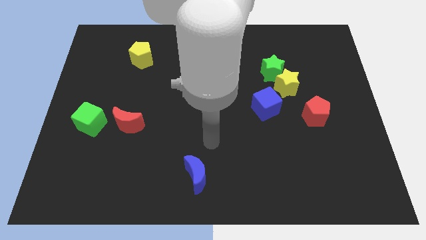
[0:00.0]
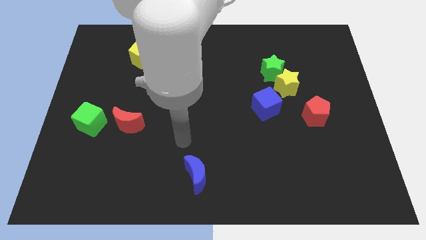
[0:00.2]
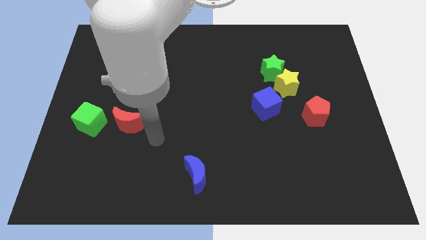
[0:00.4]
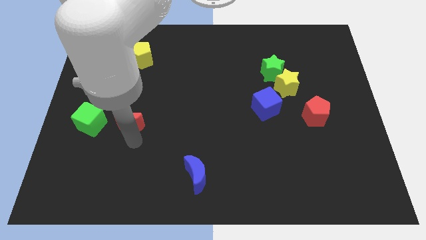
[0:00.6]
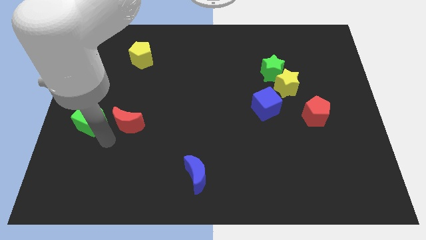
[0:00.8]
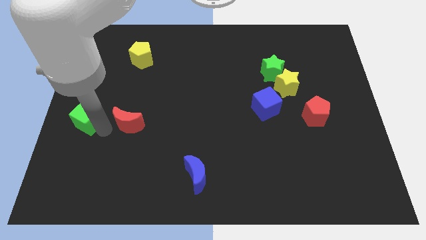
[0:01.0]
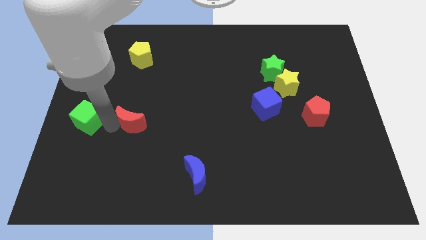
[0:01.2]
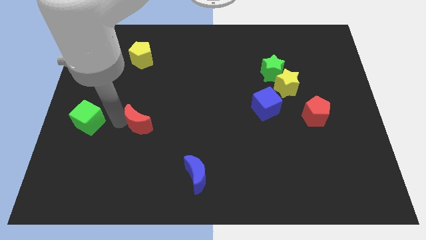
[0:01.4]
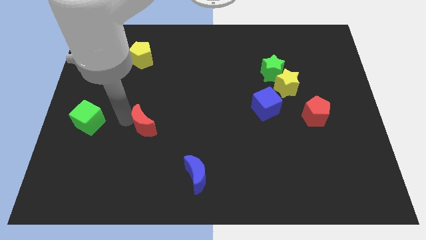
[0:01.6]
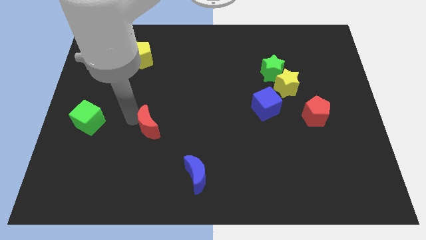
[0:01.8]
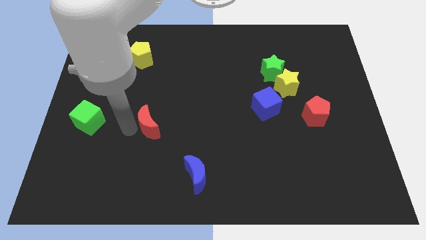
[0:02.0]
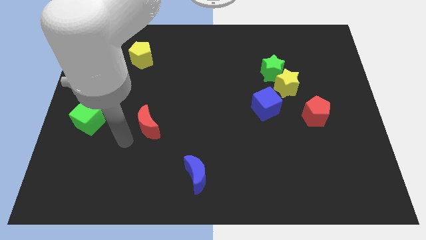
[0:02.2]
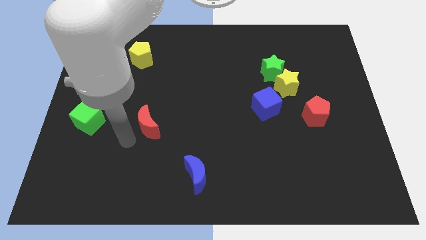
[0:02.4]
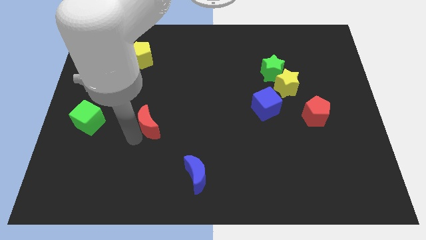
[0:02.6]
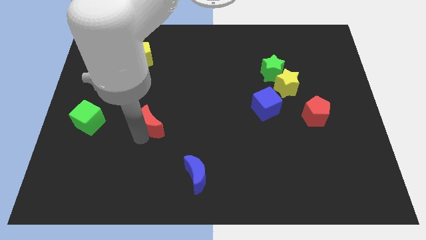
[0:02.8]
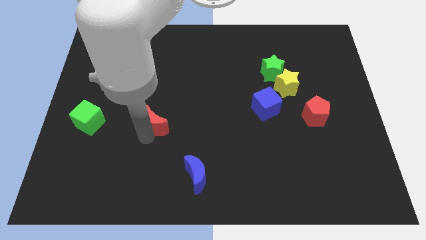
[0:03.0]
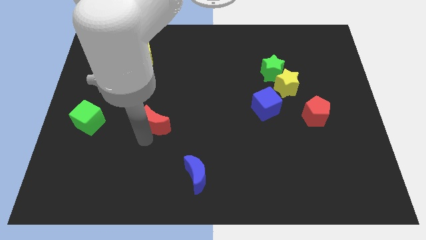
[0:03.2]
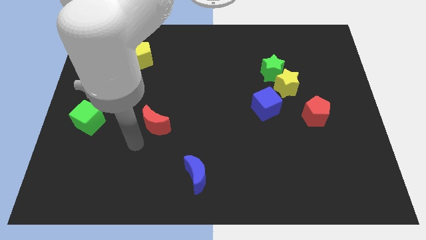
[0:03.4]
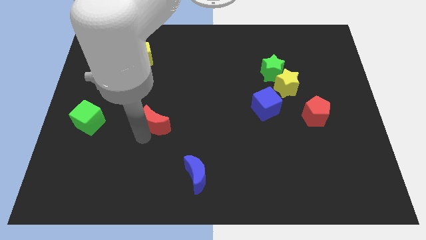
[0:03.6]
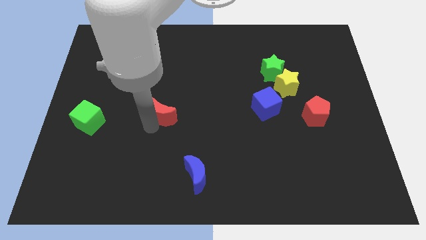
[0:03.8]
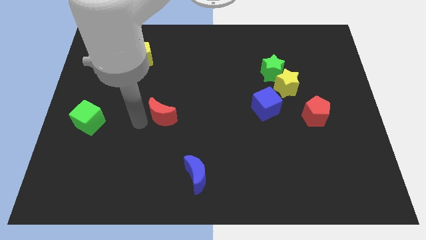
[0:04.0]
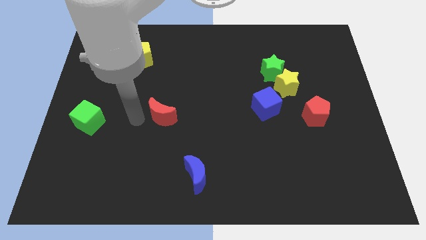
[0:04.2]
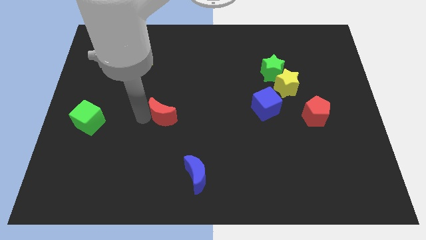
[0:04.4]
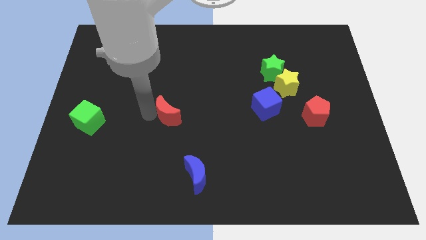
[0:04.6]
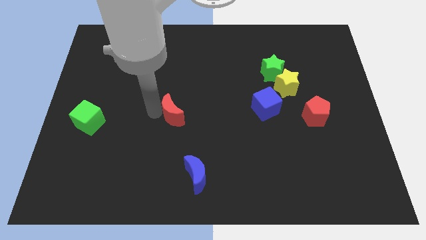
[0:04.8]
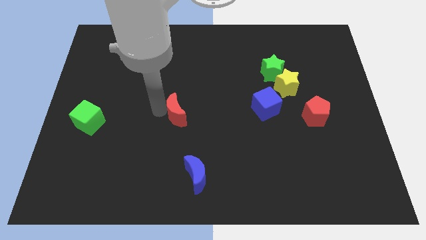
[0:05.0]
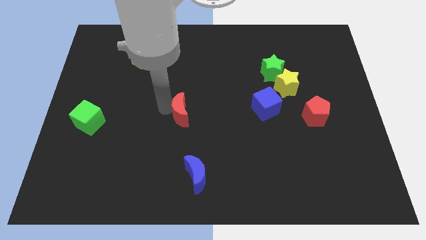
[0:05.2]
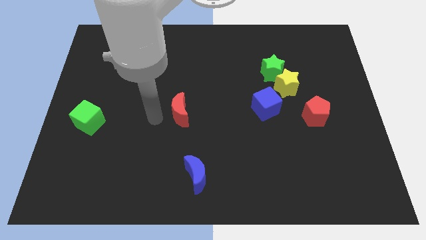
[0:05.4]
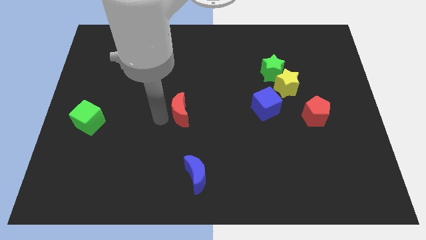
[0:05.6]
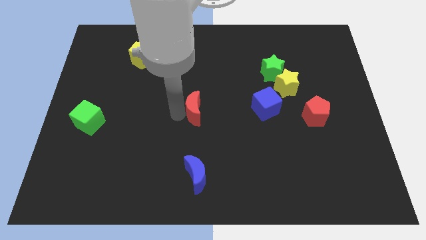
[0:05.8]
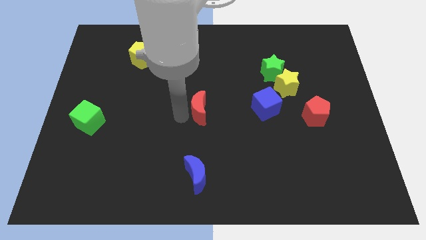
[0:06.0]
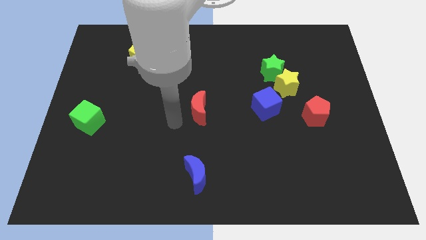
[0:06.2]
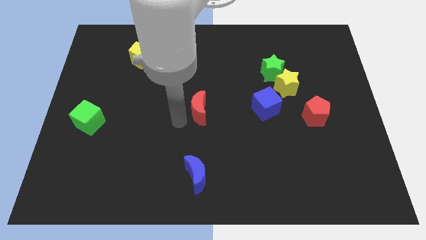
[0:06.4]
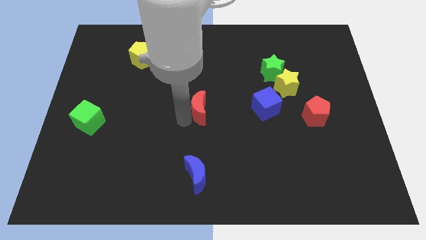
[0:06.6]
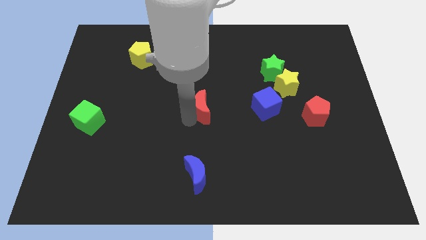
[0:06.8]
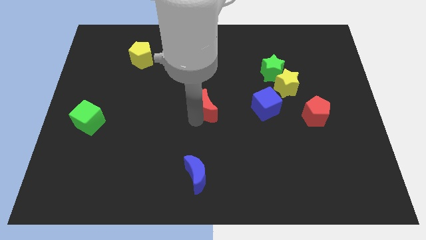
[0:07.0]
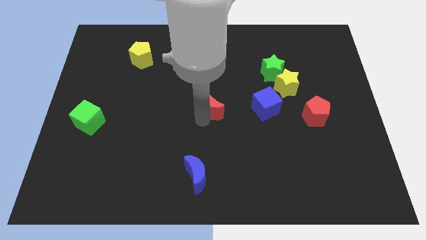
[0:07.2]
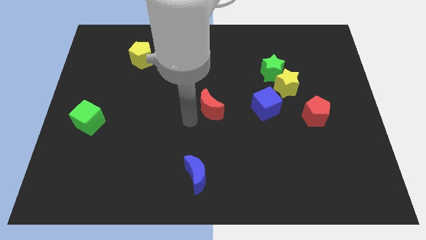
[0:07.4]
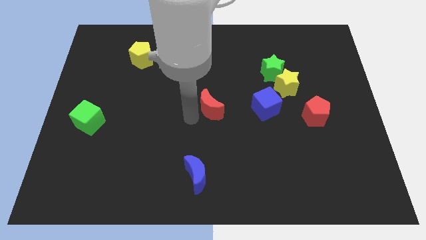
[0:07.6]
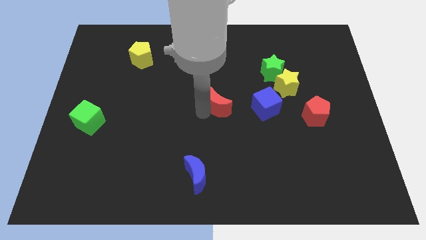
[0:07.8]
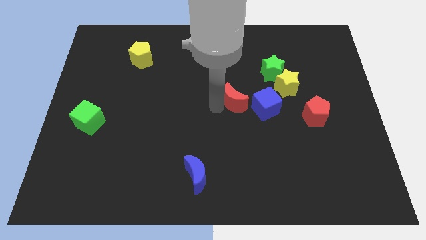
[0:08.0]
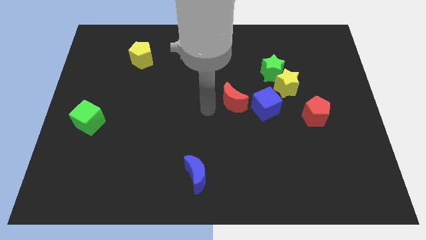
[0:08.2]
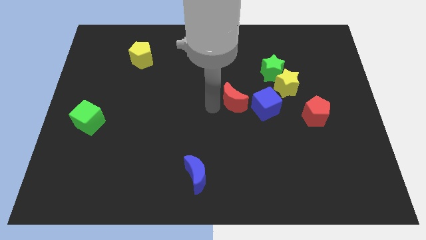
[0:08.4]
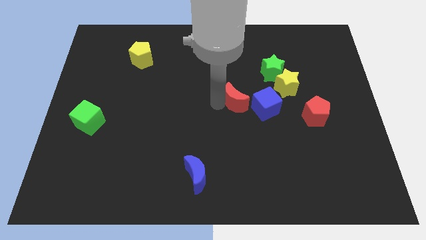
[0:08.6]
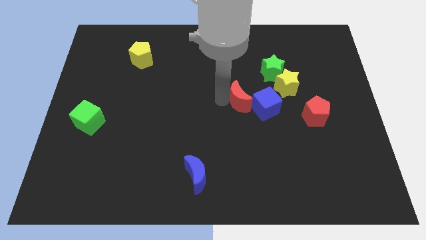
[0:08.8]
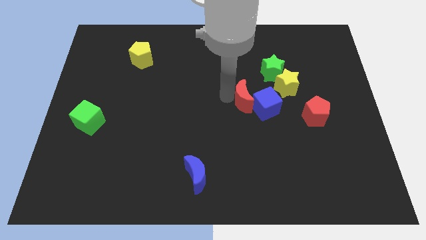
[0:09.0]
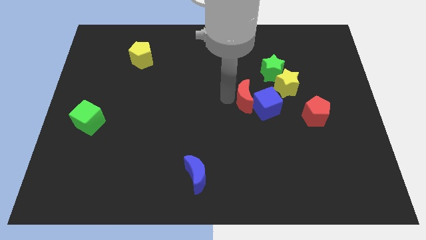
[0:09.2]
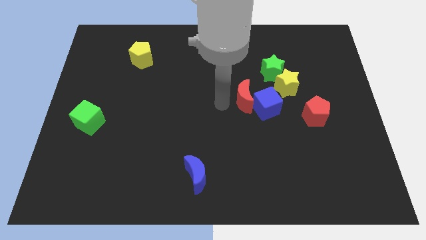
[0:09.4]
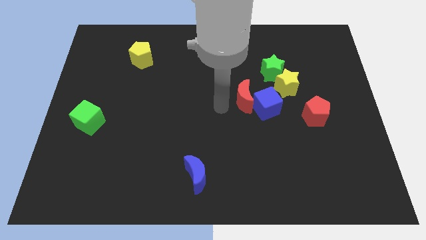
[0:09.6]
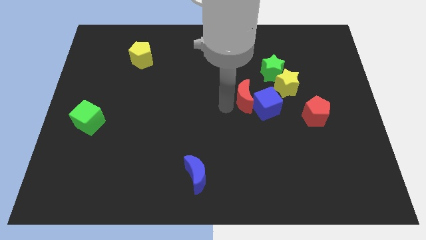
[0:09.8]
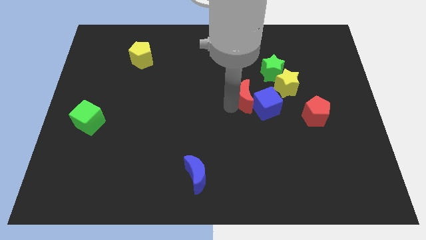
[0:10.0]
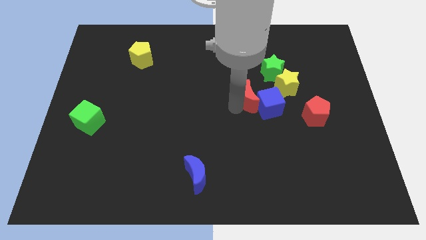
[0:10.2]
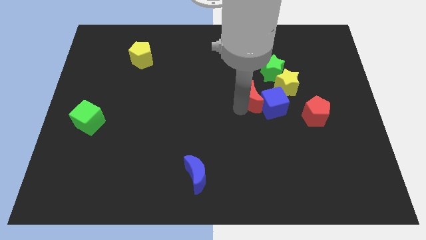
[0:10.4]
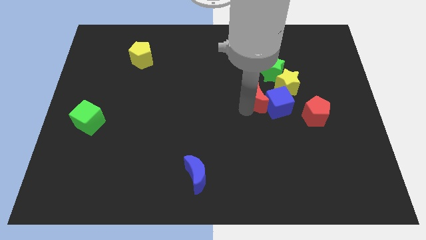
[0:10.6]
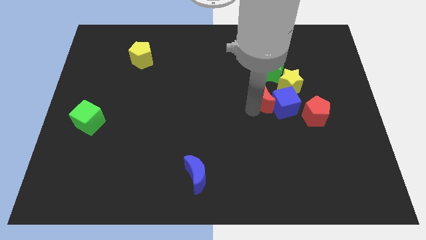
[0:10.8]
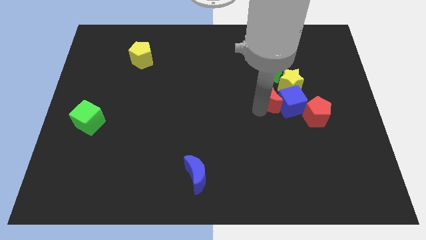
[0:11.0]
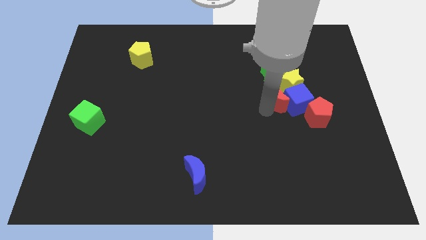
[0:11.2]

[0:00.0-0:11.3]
move the red moon towards the yellow star

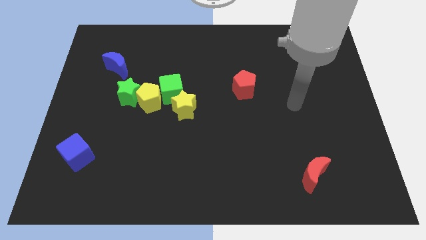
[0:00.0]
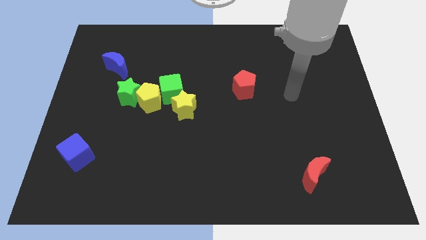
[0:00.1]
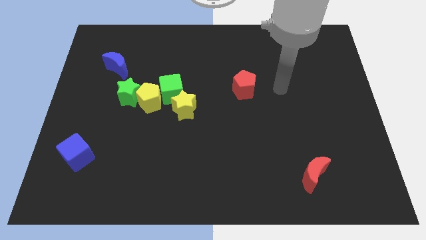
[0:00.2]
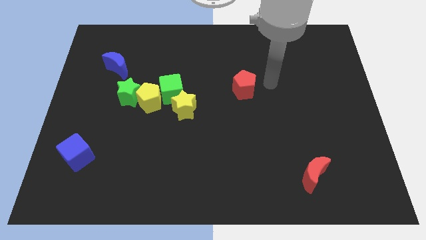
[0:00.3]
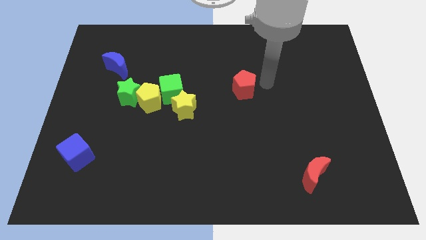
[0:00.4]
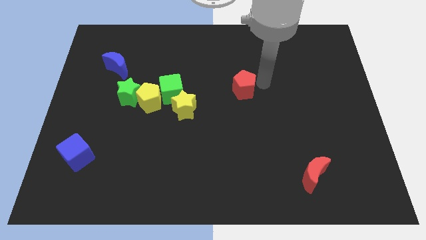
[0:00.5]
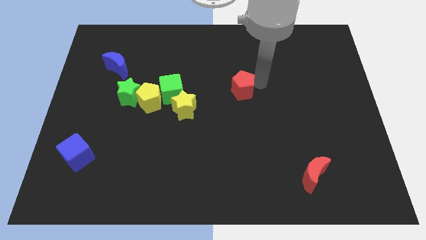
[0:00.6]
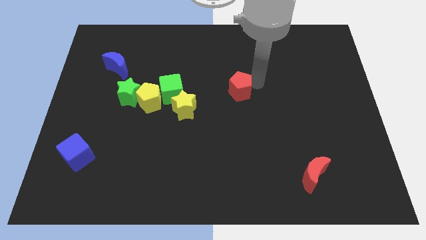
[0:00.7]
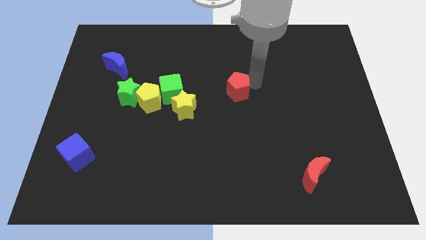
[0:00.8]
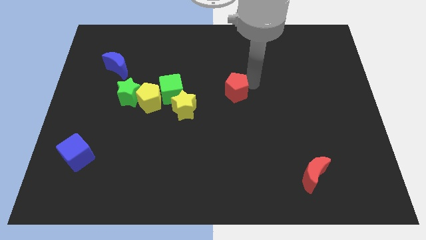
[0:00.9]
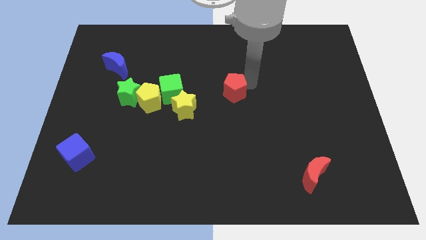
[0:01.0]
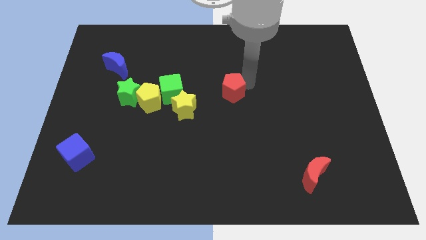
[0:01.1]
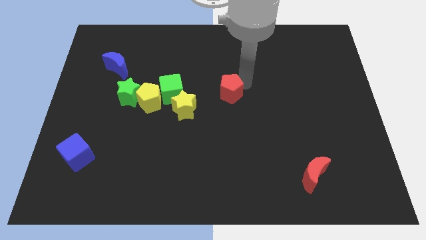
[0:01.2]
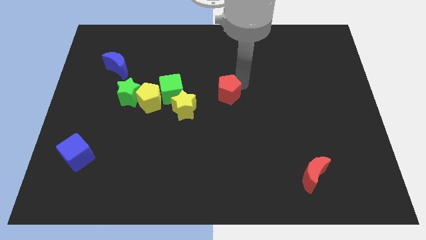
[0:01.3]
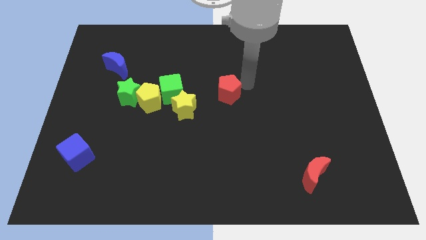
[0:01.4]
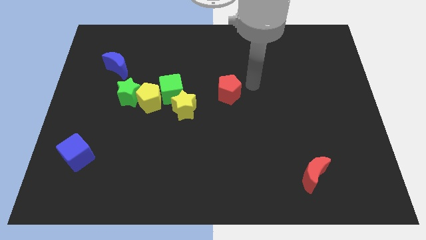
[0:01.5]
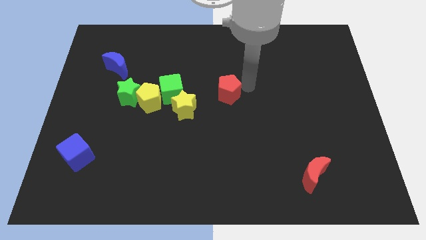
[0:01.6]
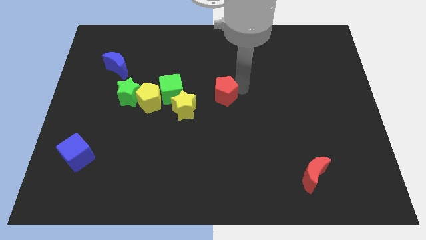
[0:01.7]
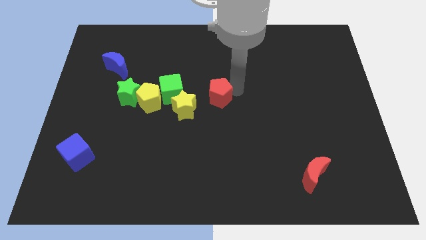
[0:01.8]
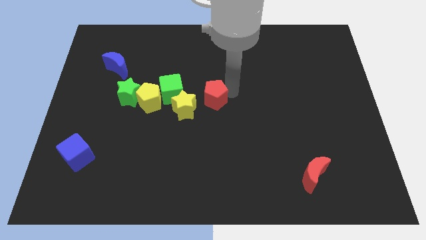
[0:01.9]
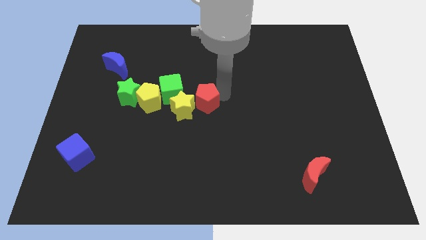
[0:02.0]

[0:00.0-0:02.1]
slide the red pentagon close to the yellow star

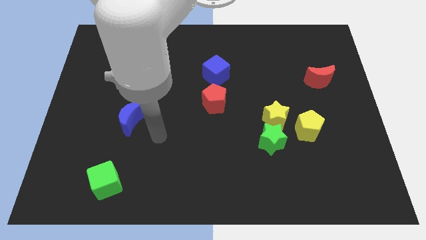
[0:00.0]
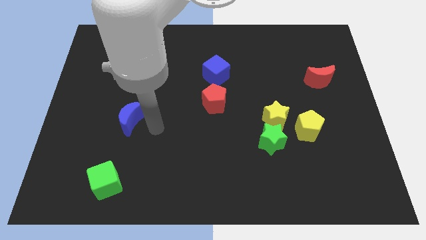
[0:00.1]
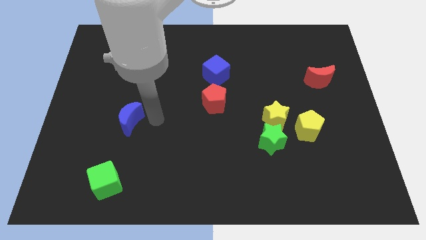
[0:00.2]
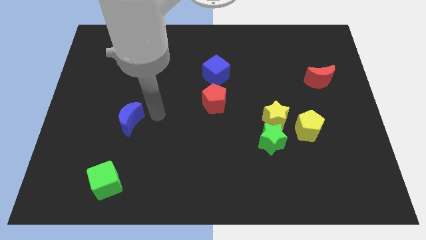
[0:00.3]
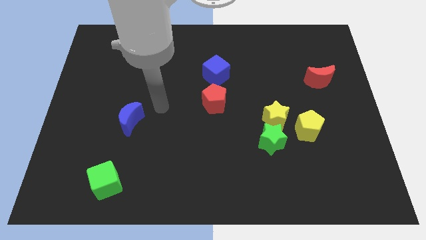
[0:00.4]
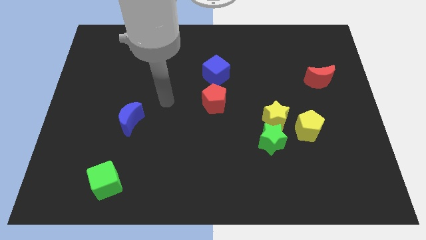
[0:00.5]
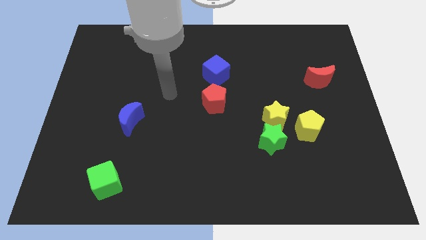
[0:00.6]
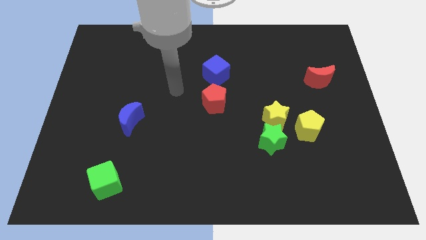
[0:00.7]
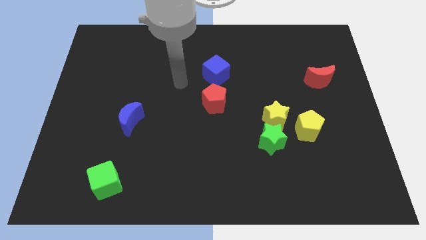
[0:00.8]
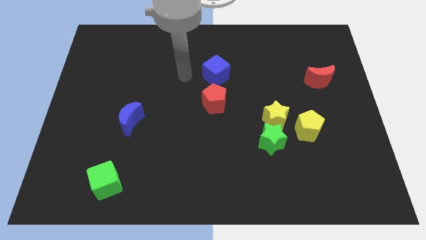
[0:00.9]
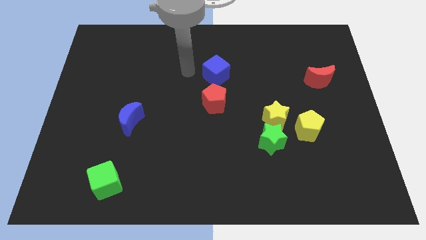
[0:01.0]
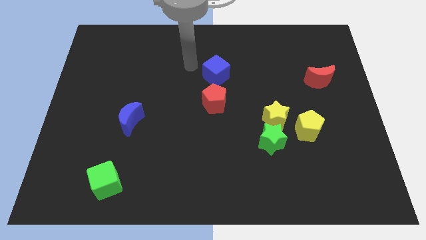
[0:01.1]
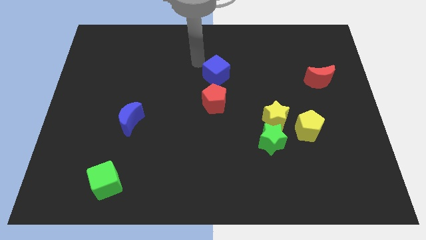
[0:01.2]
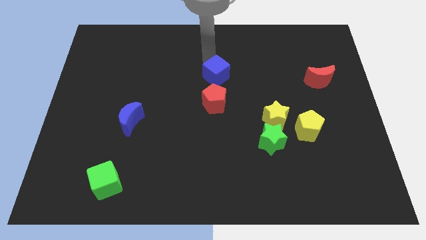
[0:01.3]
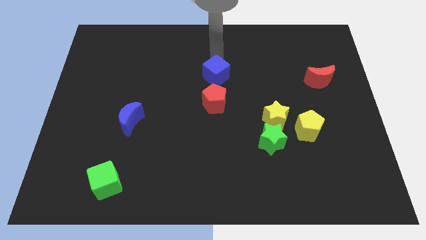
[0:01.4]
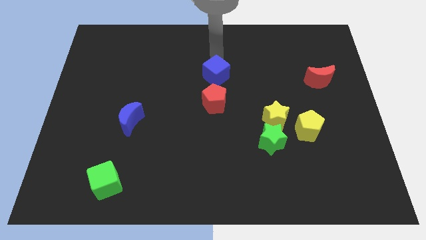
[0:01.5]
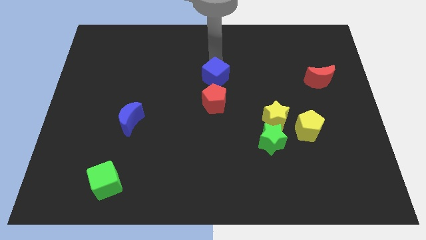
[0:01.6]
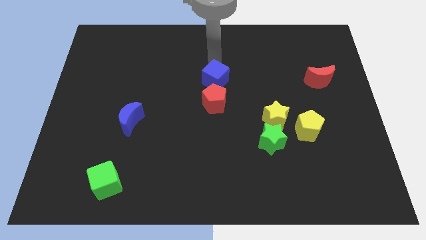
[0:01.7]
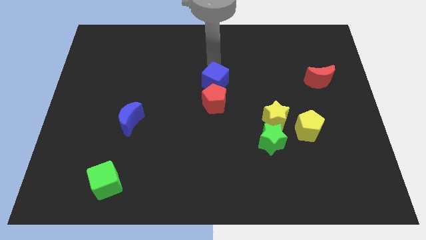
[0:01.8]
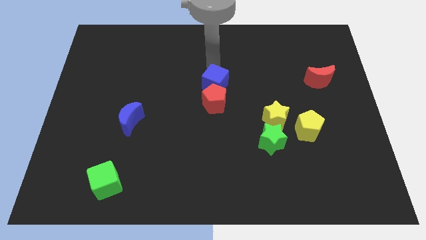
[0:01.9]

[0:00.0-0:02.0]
move the blue cube close to the red pentagon
